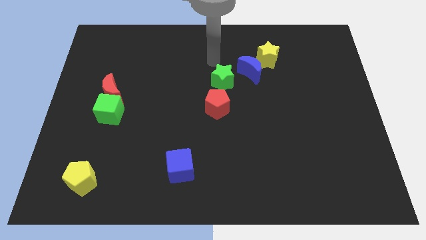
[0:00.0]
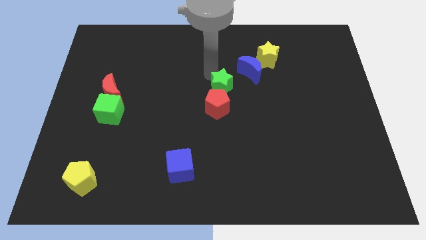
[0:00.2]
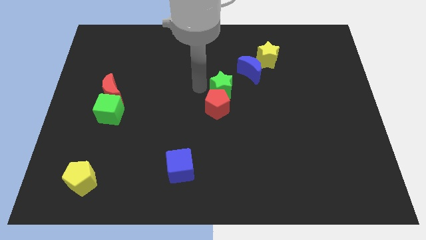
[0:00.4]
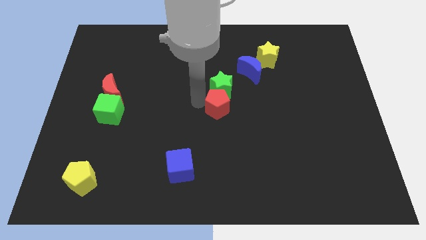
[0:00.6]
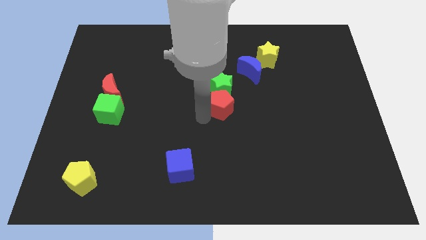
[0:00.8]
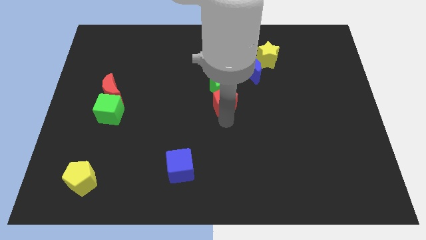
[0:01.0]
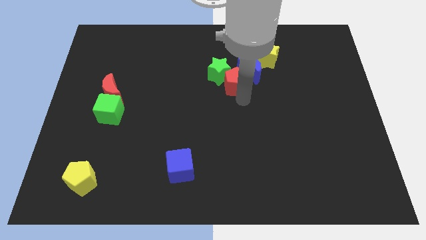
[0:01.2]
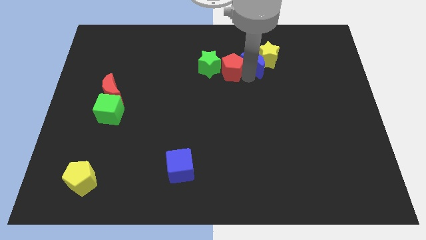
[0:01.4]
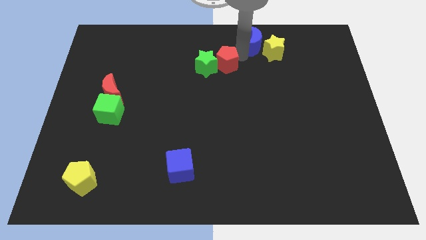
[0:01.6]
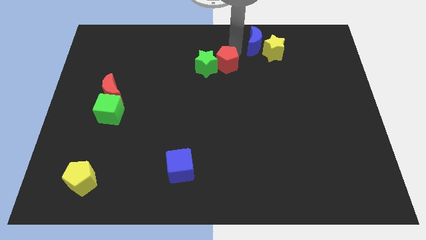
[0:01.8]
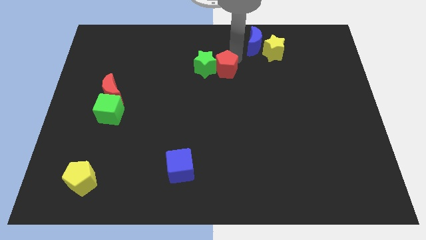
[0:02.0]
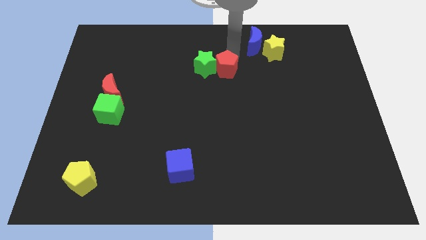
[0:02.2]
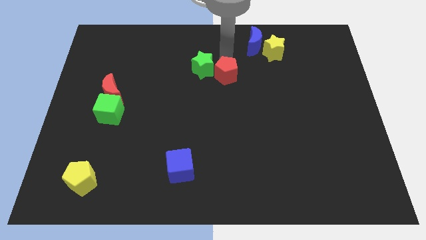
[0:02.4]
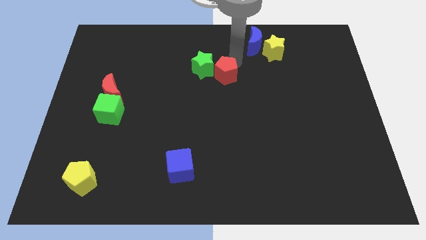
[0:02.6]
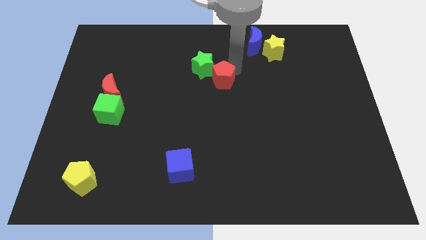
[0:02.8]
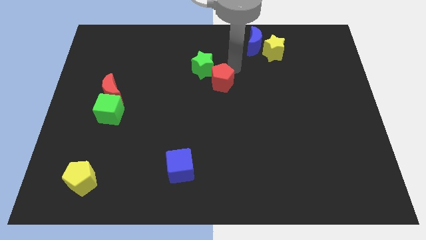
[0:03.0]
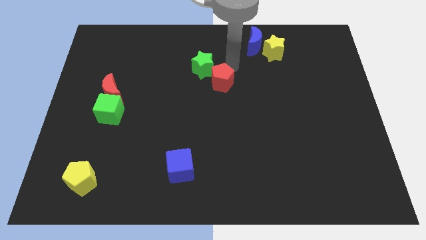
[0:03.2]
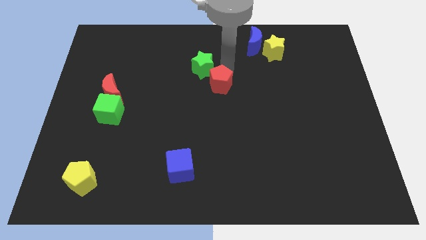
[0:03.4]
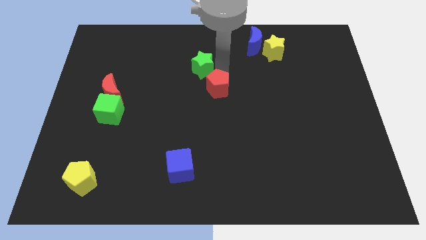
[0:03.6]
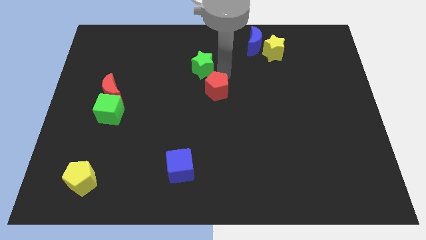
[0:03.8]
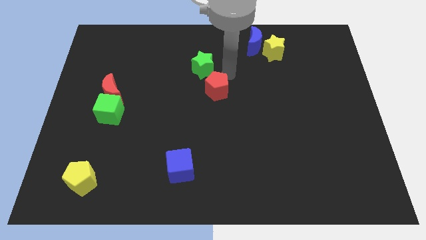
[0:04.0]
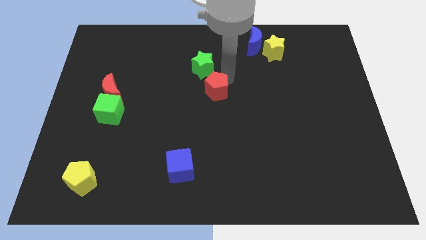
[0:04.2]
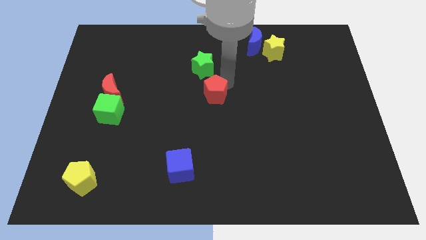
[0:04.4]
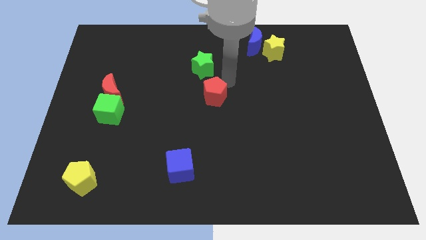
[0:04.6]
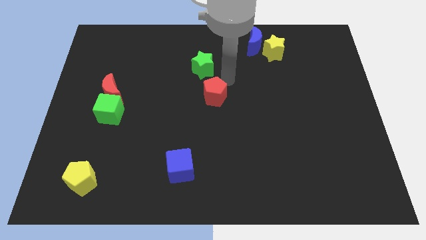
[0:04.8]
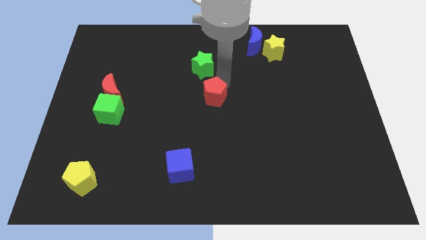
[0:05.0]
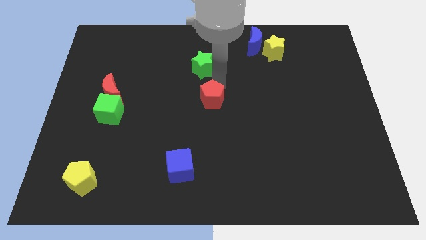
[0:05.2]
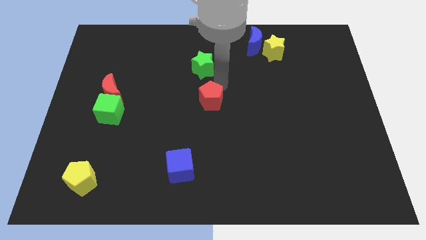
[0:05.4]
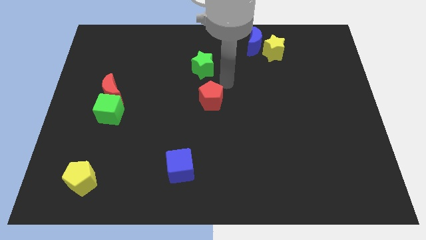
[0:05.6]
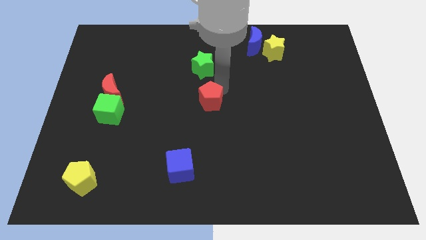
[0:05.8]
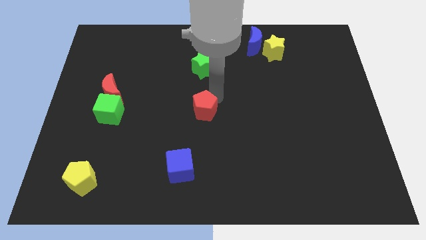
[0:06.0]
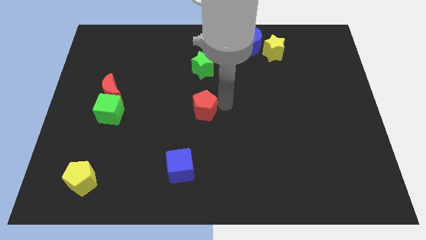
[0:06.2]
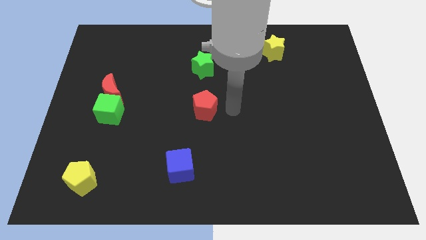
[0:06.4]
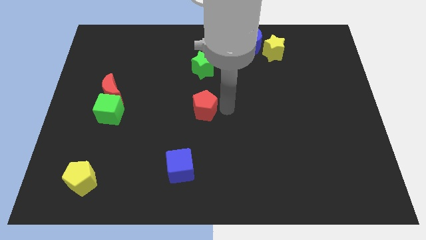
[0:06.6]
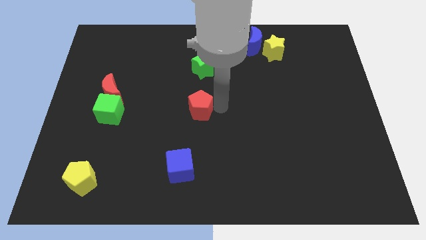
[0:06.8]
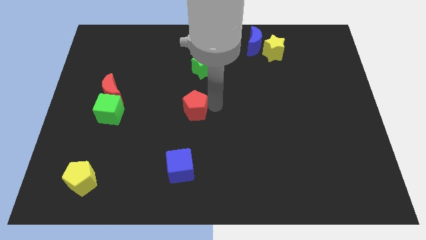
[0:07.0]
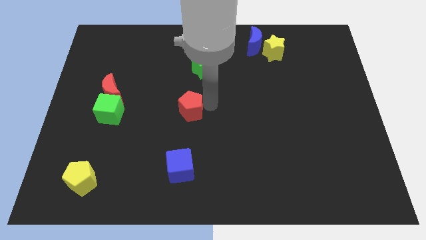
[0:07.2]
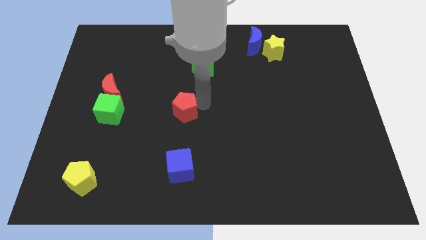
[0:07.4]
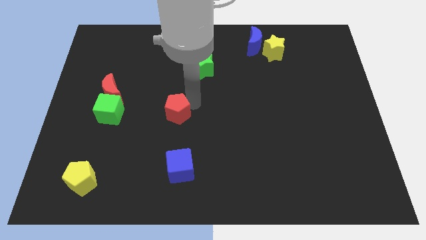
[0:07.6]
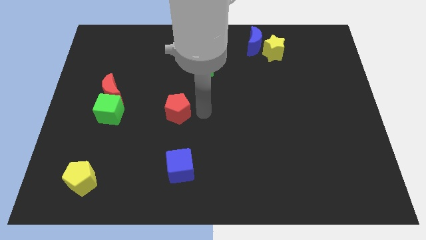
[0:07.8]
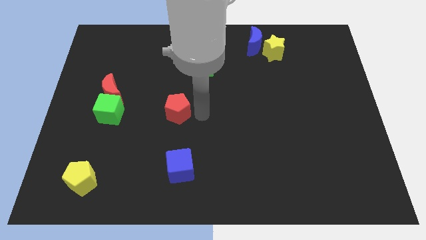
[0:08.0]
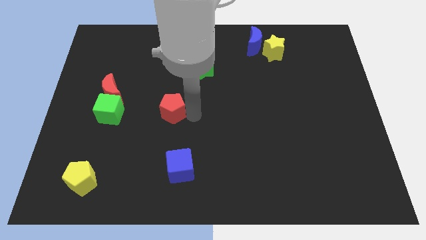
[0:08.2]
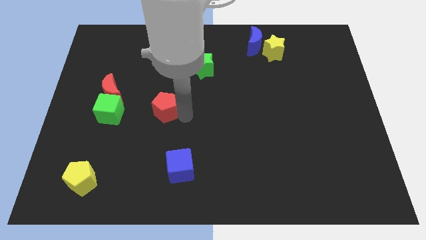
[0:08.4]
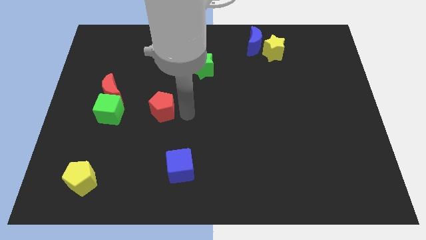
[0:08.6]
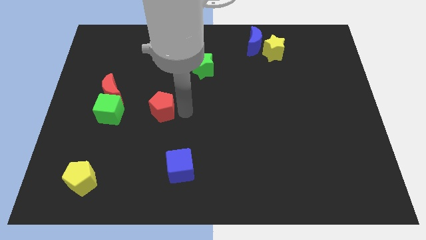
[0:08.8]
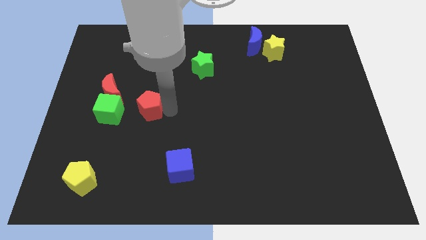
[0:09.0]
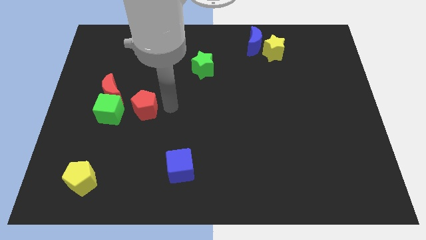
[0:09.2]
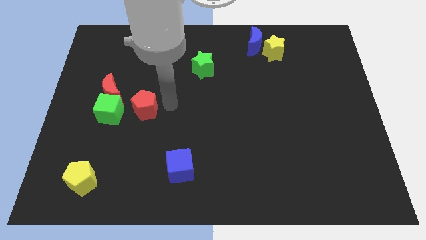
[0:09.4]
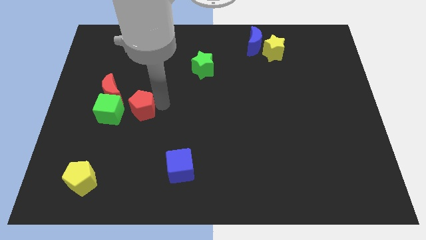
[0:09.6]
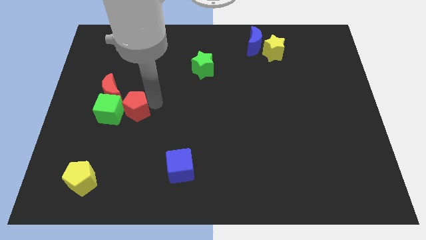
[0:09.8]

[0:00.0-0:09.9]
slide the red pentagon to the green cube

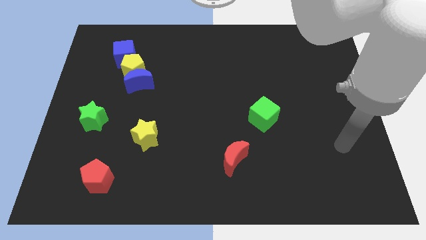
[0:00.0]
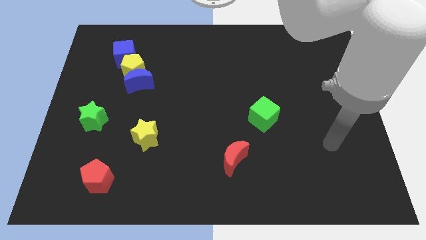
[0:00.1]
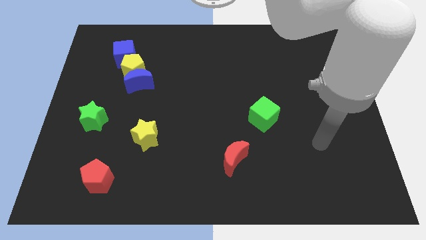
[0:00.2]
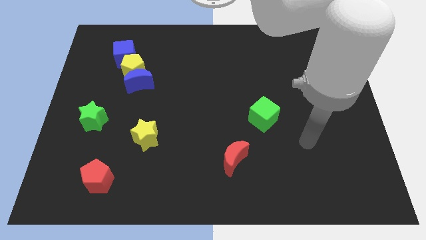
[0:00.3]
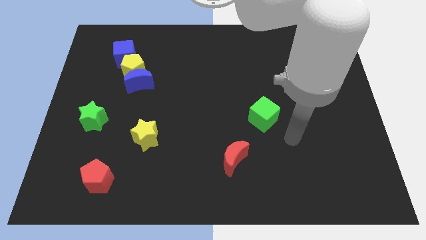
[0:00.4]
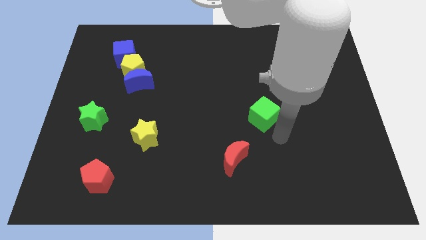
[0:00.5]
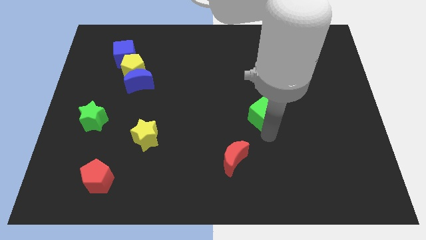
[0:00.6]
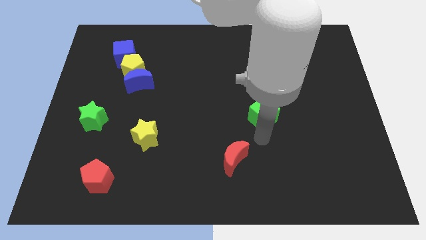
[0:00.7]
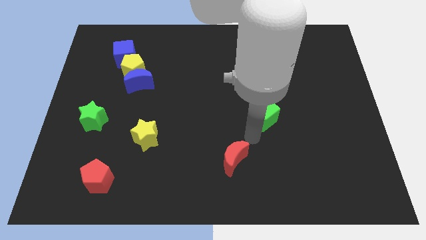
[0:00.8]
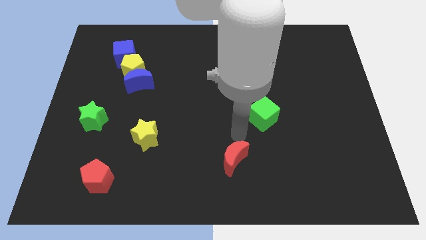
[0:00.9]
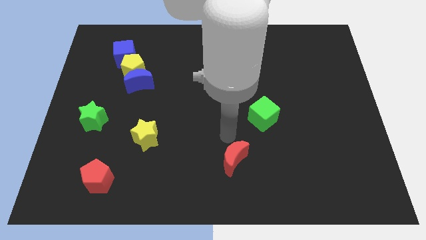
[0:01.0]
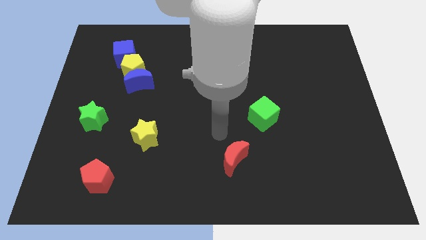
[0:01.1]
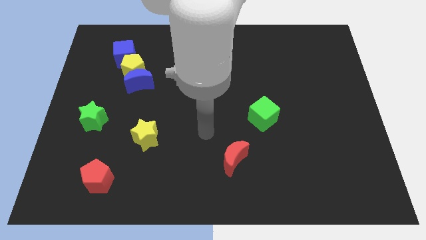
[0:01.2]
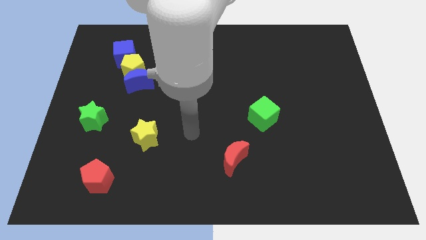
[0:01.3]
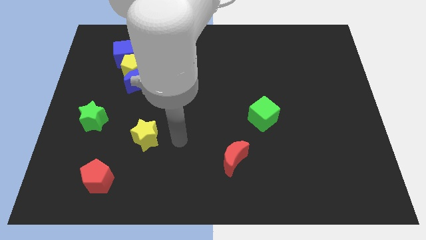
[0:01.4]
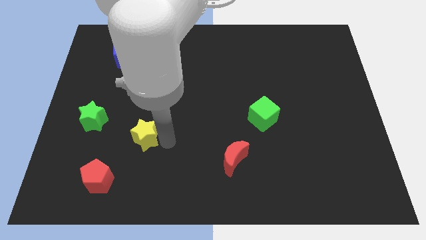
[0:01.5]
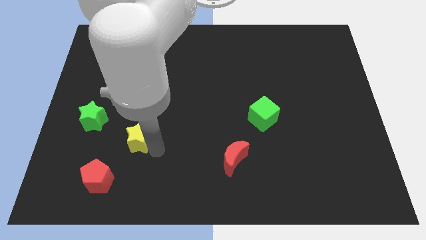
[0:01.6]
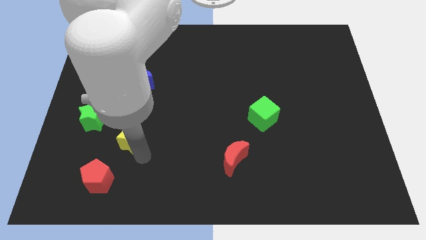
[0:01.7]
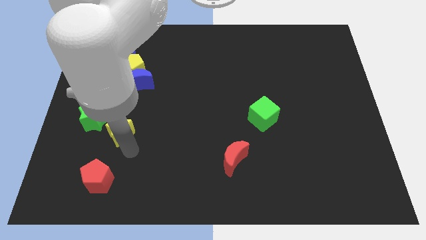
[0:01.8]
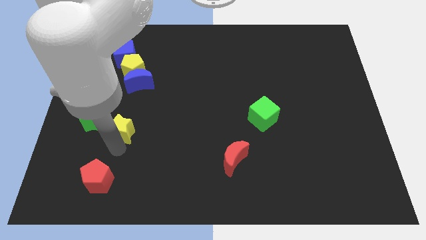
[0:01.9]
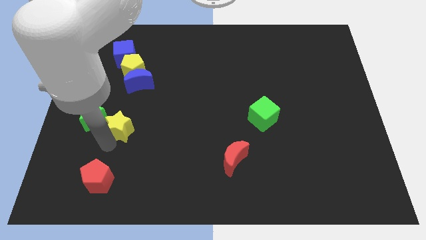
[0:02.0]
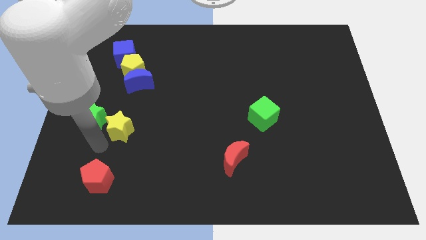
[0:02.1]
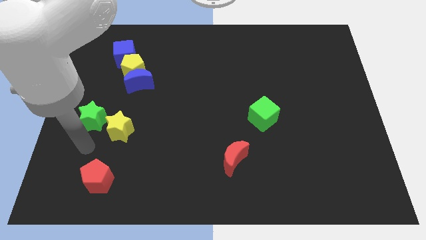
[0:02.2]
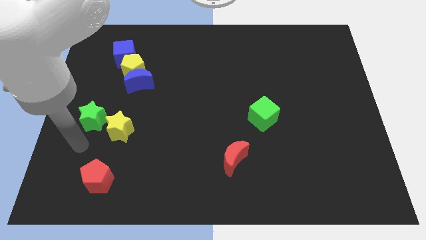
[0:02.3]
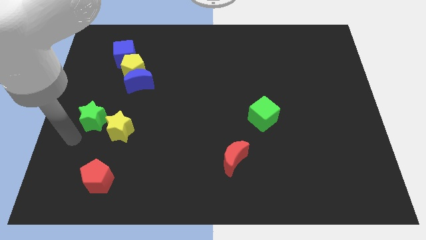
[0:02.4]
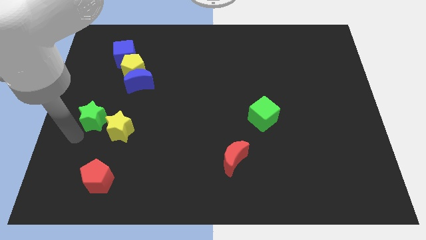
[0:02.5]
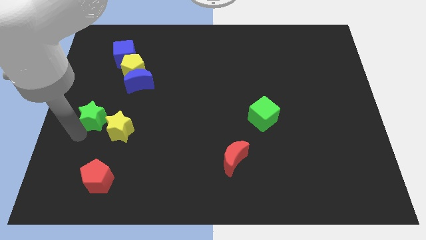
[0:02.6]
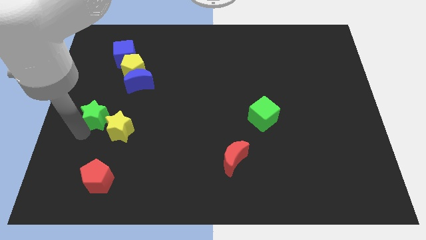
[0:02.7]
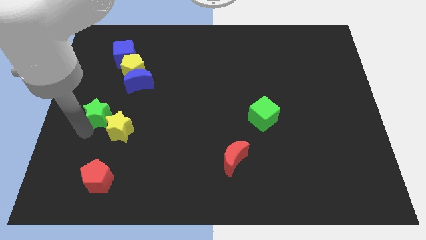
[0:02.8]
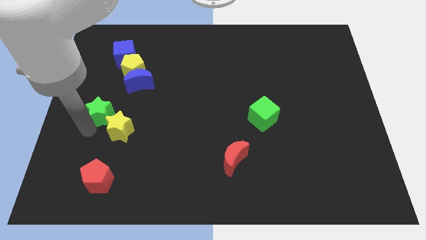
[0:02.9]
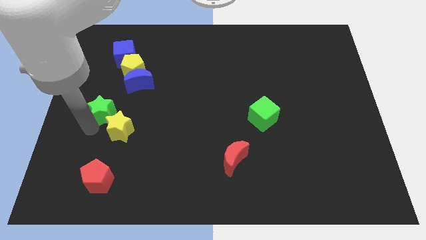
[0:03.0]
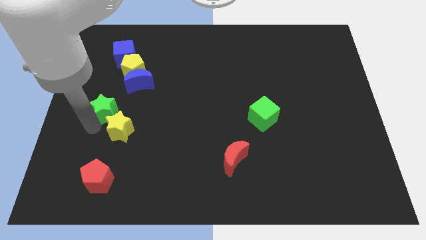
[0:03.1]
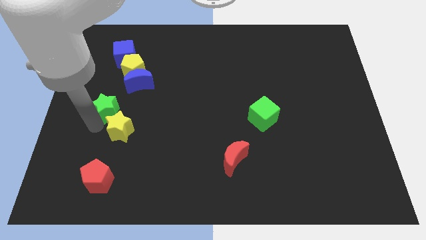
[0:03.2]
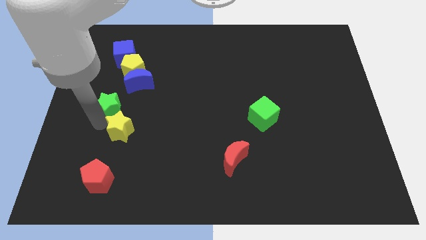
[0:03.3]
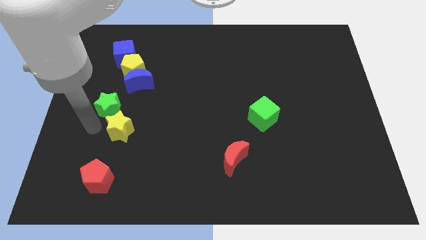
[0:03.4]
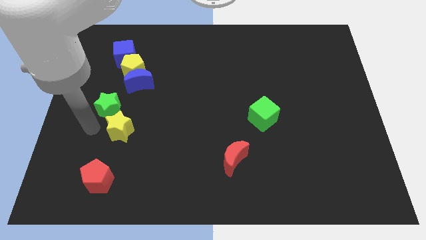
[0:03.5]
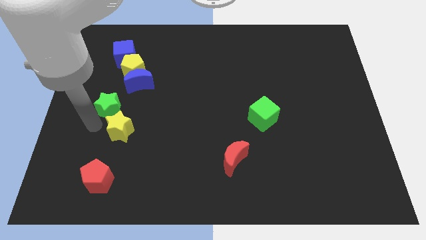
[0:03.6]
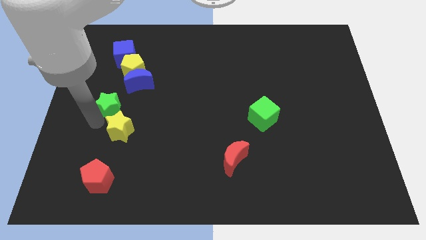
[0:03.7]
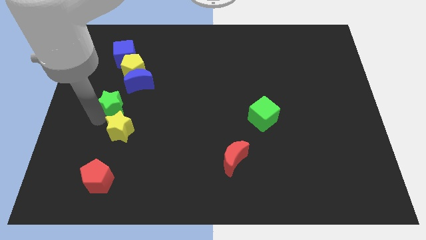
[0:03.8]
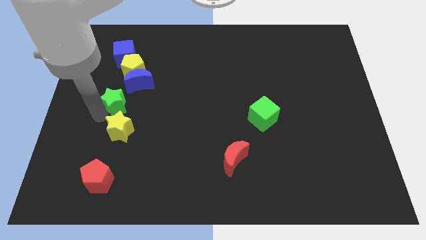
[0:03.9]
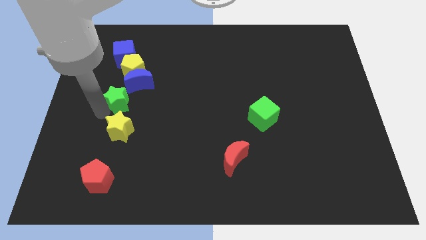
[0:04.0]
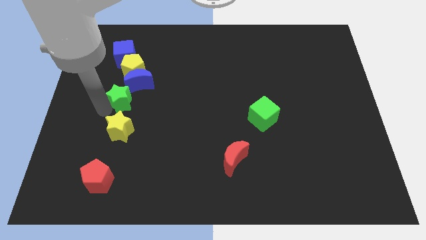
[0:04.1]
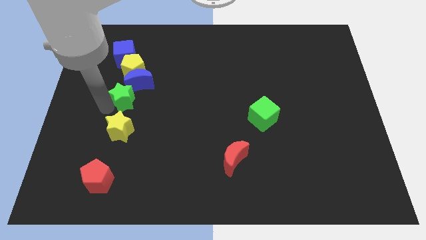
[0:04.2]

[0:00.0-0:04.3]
slide the green star to the blue moon
